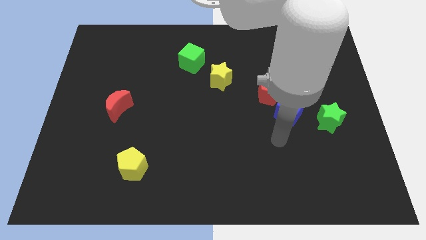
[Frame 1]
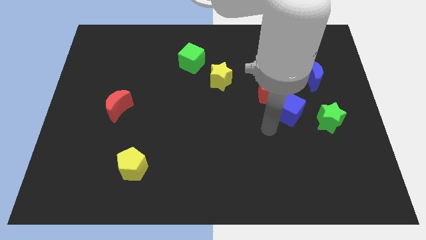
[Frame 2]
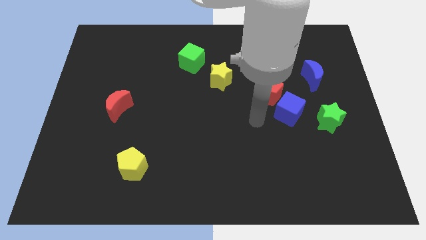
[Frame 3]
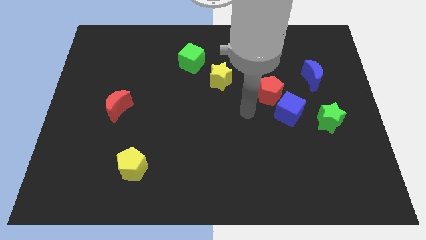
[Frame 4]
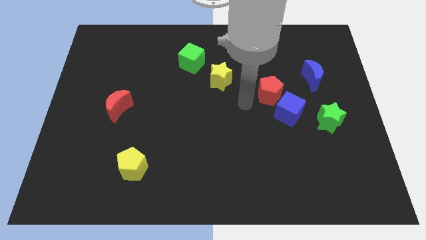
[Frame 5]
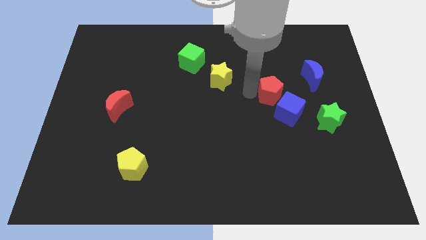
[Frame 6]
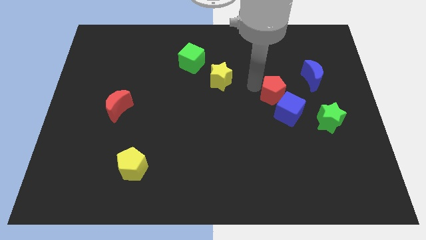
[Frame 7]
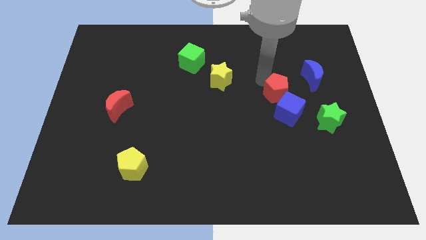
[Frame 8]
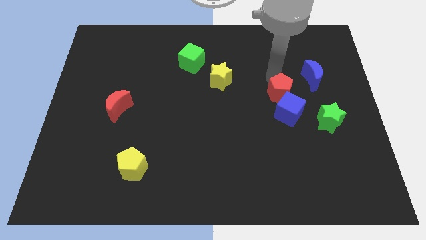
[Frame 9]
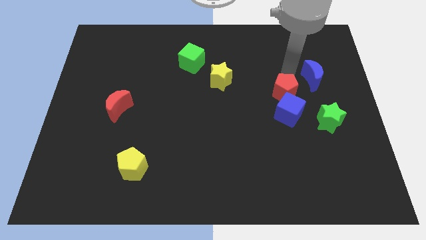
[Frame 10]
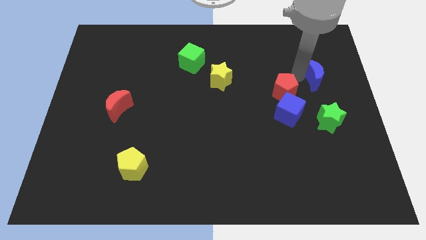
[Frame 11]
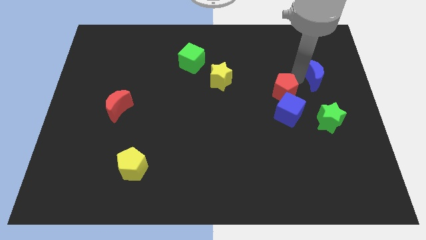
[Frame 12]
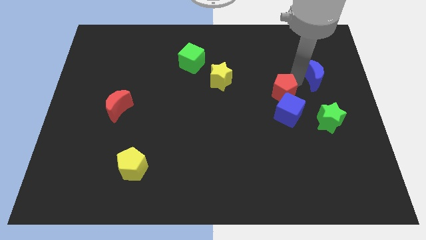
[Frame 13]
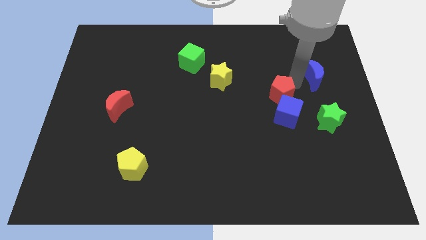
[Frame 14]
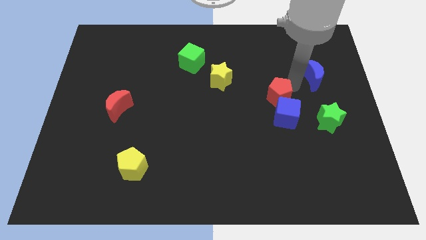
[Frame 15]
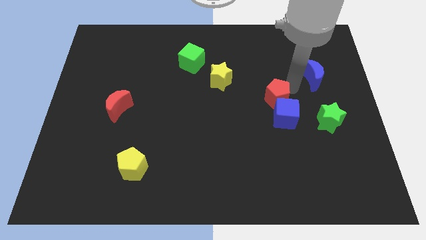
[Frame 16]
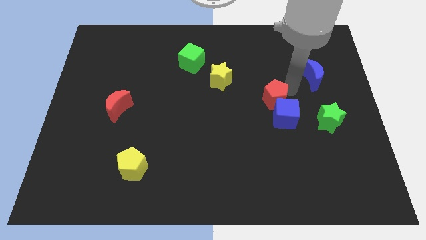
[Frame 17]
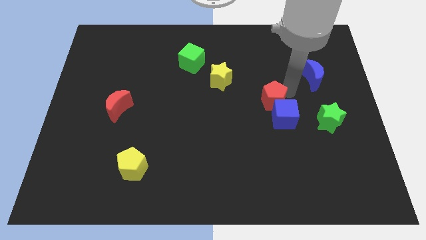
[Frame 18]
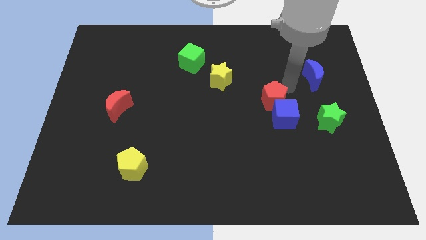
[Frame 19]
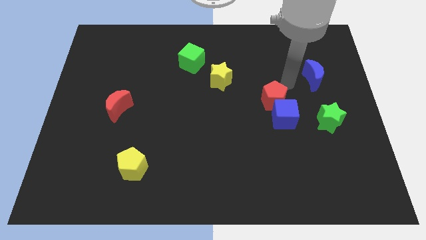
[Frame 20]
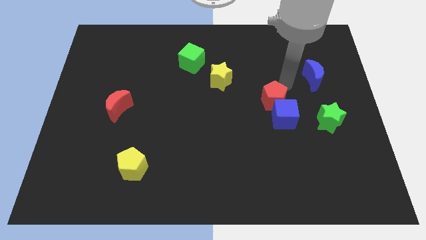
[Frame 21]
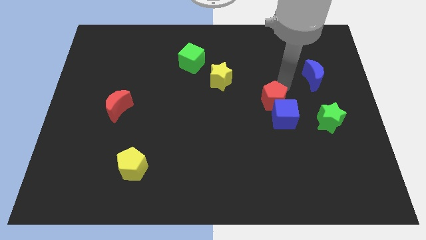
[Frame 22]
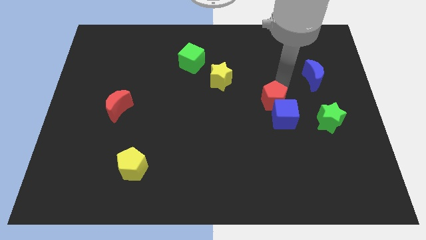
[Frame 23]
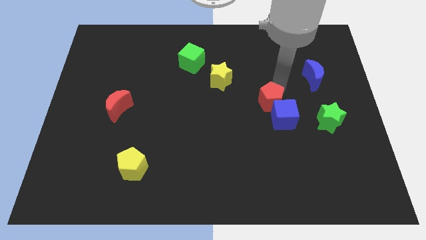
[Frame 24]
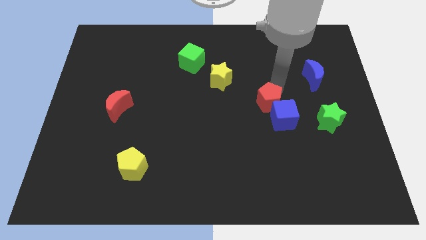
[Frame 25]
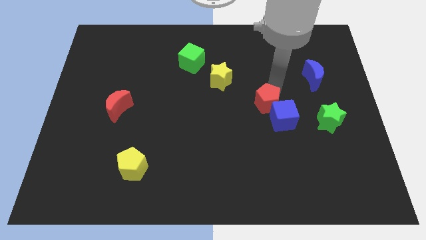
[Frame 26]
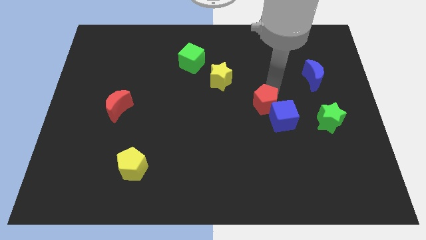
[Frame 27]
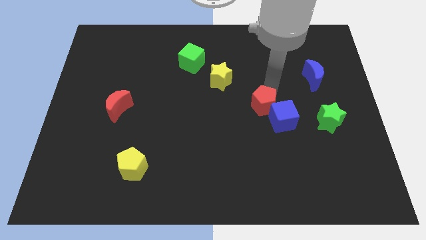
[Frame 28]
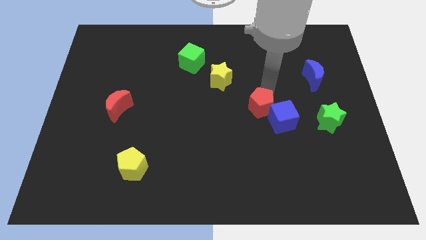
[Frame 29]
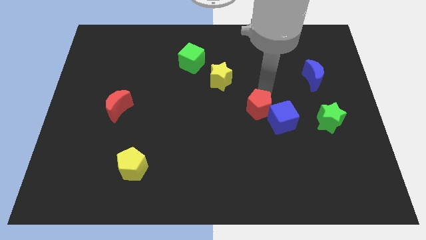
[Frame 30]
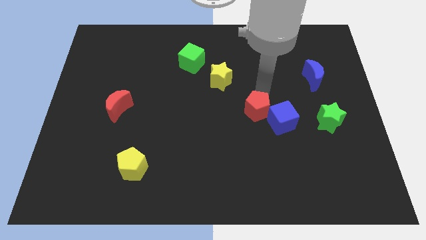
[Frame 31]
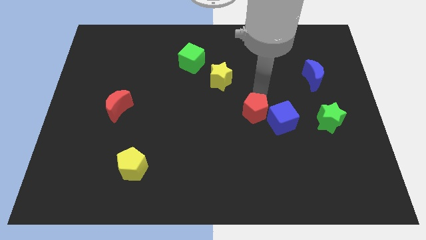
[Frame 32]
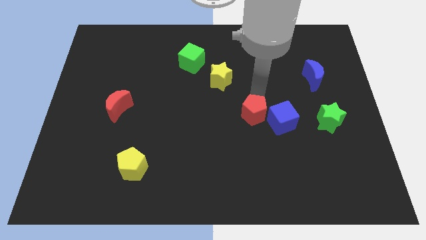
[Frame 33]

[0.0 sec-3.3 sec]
move the red pentagon a little bit diagonally down and left

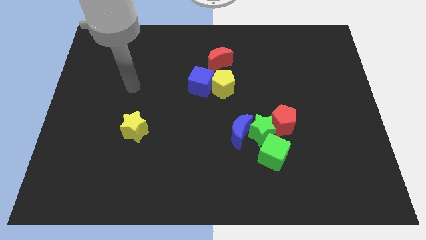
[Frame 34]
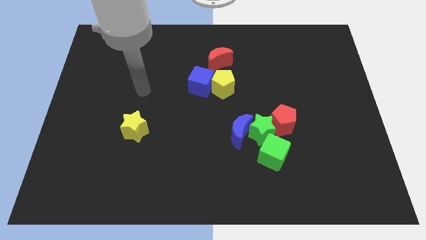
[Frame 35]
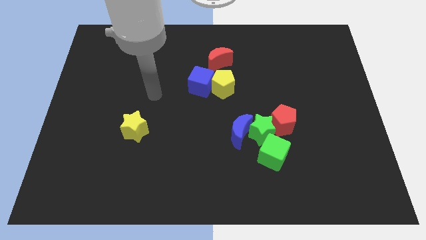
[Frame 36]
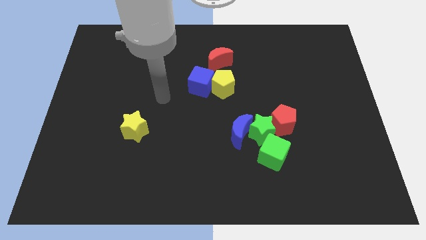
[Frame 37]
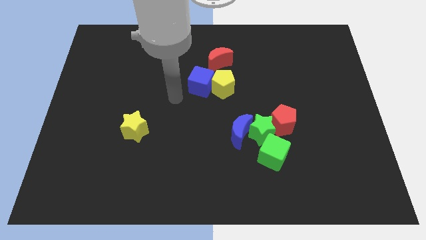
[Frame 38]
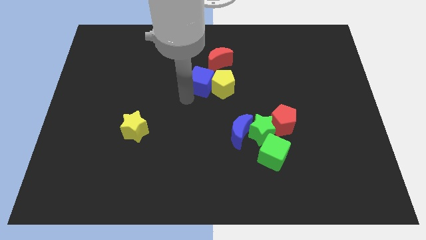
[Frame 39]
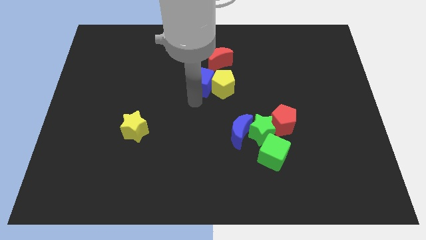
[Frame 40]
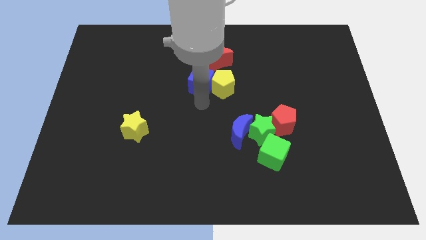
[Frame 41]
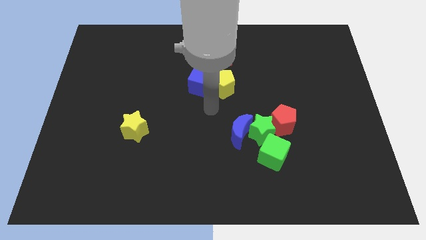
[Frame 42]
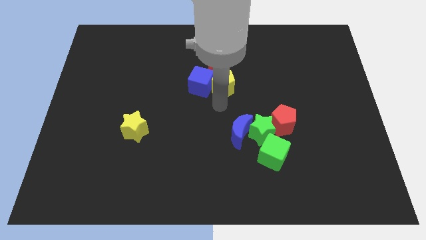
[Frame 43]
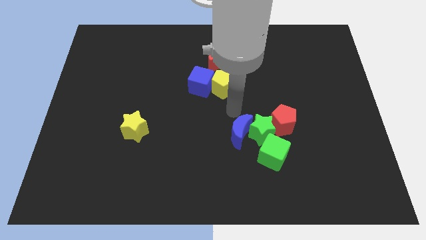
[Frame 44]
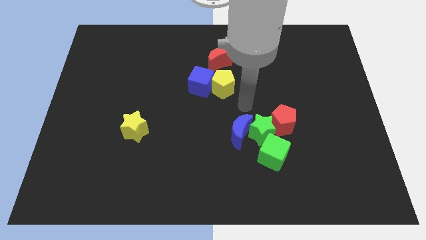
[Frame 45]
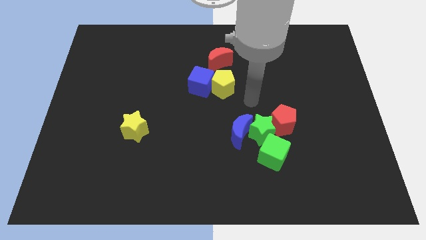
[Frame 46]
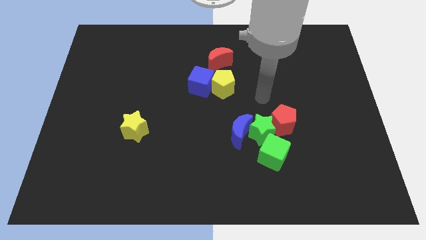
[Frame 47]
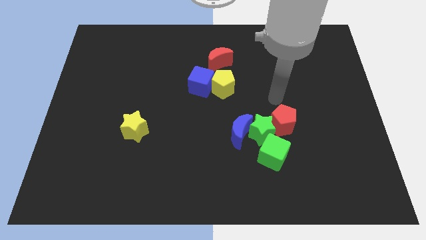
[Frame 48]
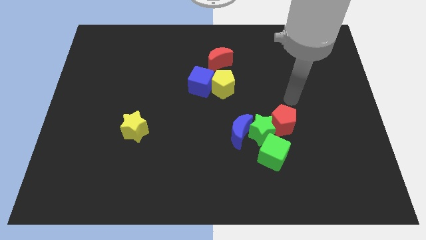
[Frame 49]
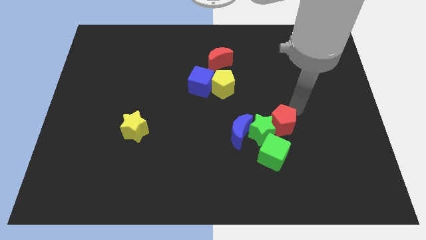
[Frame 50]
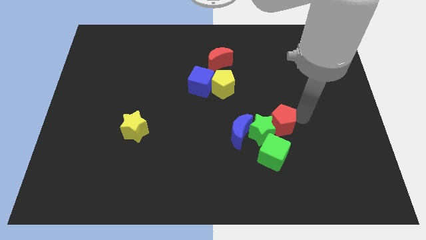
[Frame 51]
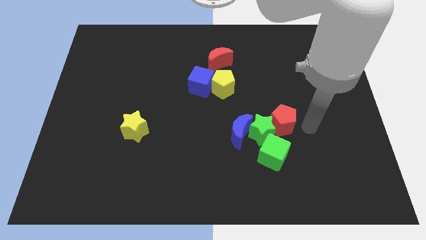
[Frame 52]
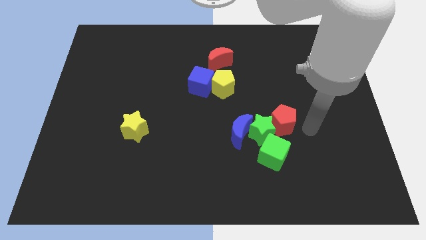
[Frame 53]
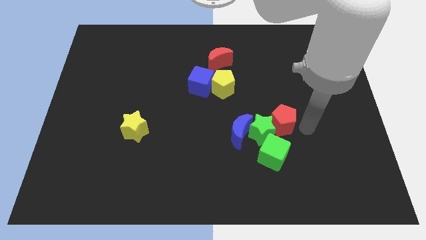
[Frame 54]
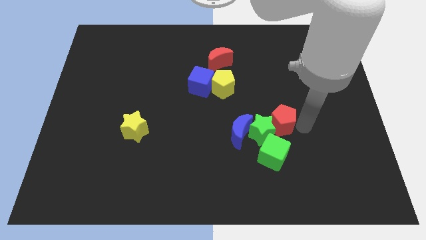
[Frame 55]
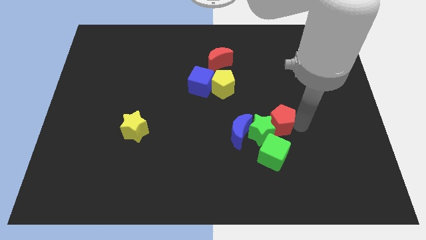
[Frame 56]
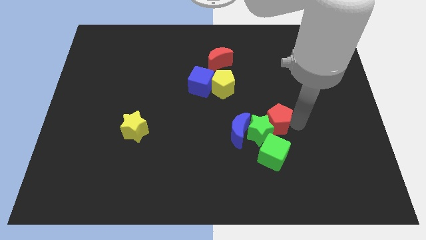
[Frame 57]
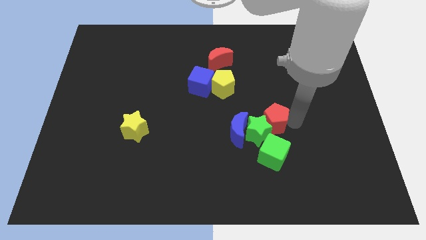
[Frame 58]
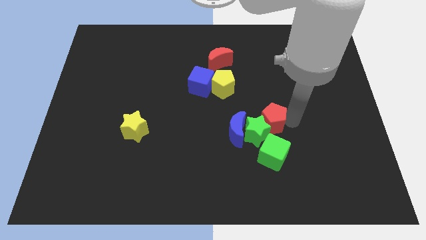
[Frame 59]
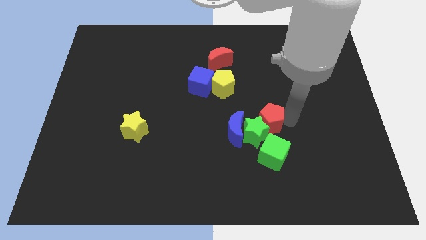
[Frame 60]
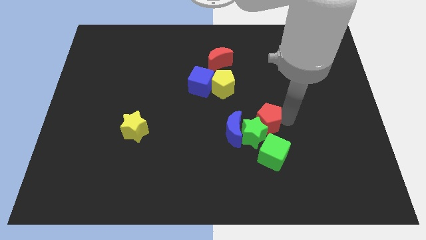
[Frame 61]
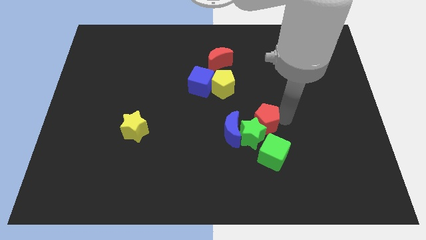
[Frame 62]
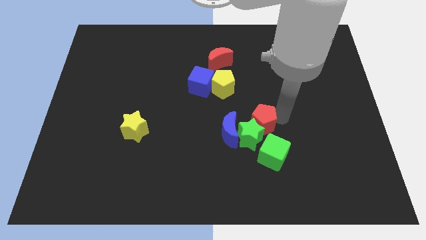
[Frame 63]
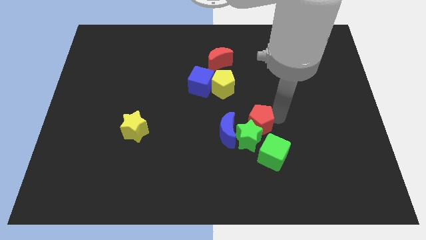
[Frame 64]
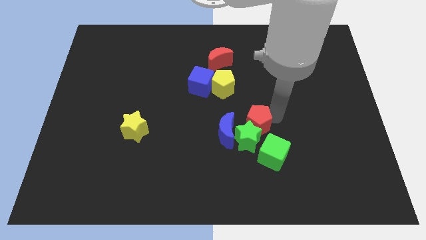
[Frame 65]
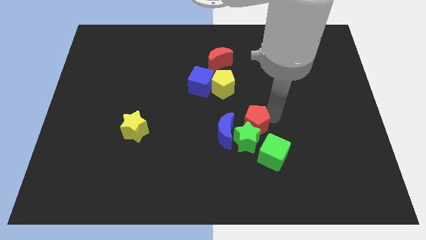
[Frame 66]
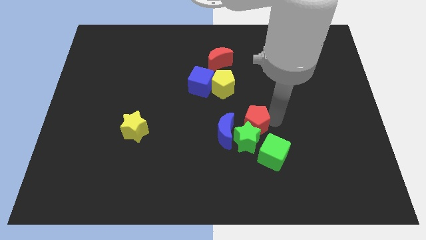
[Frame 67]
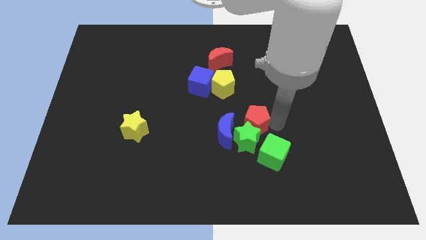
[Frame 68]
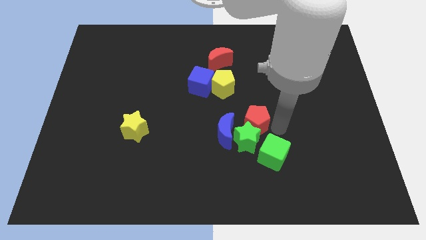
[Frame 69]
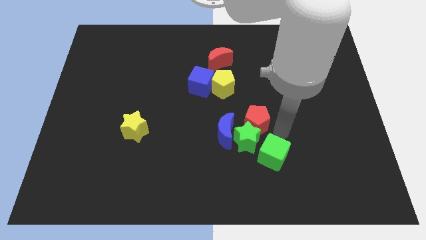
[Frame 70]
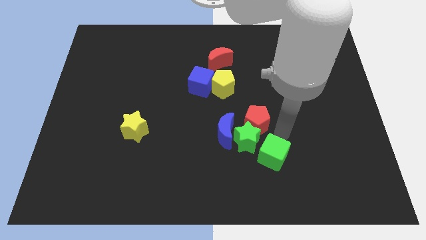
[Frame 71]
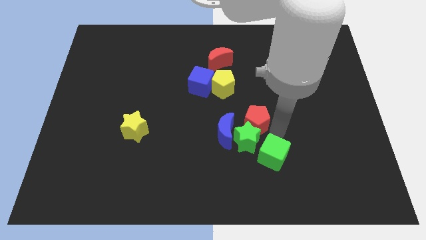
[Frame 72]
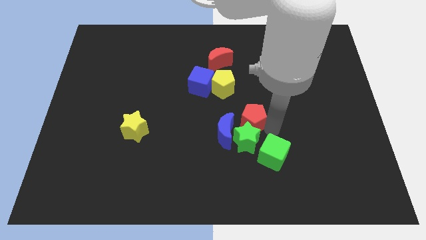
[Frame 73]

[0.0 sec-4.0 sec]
slightly slide the red pentagon to the left

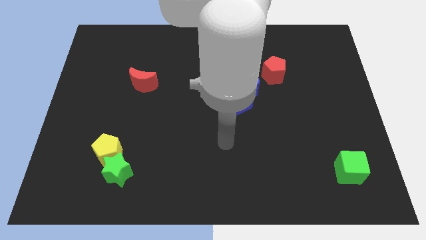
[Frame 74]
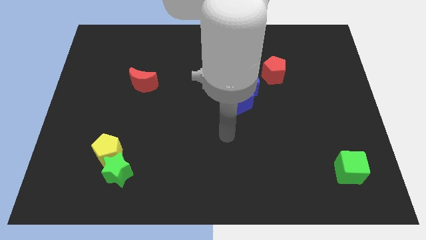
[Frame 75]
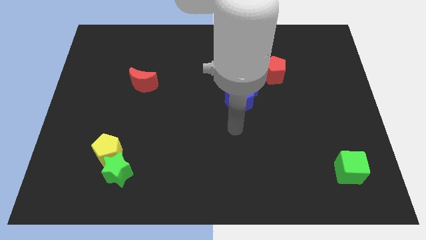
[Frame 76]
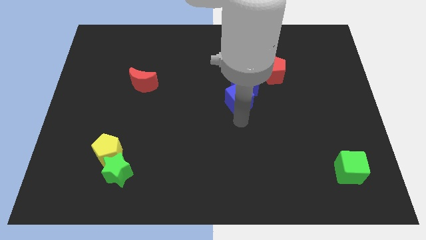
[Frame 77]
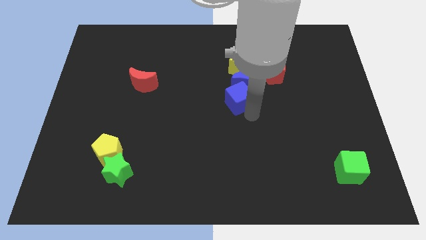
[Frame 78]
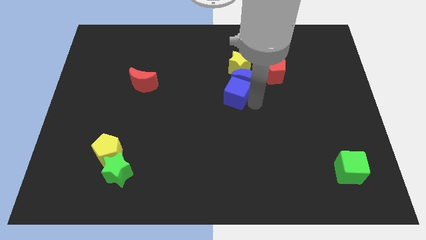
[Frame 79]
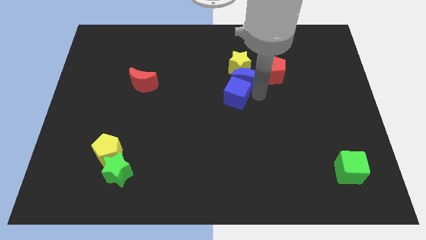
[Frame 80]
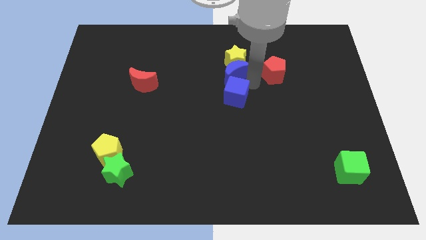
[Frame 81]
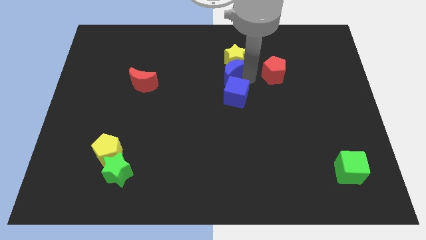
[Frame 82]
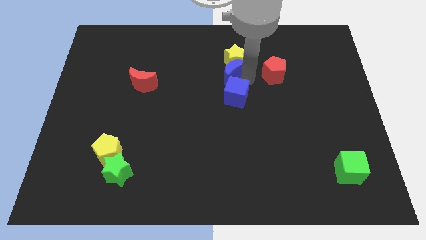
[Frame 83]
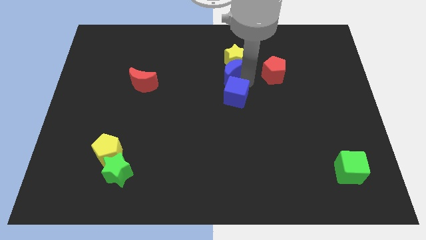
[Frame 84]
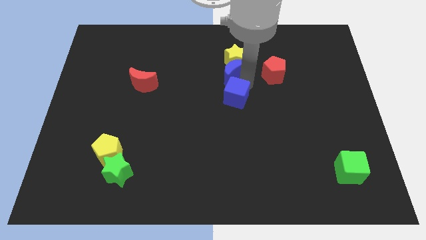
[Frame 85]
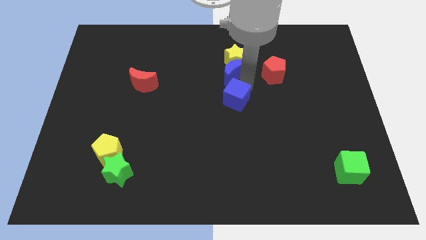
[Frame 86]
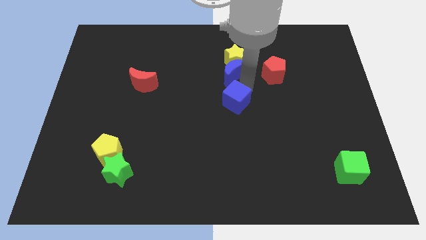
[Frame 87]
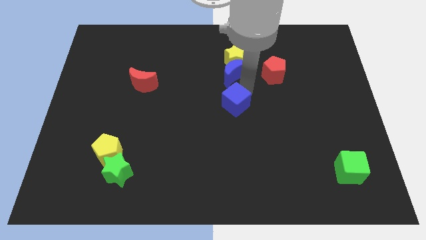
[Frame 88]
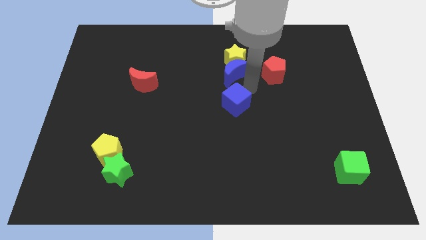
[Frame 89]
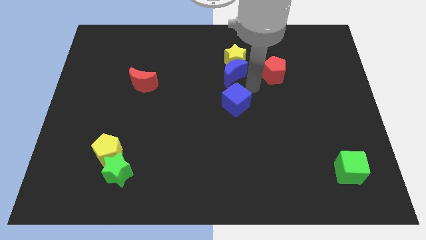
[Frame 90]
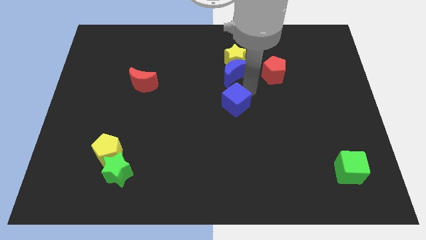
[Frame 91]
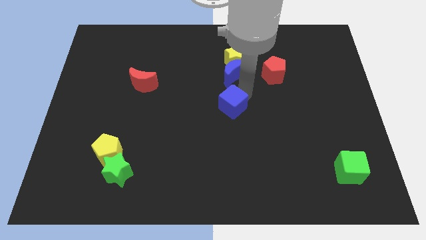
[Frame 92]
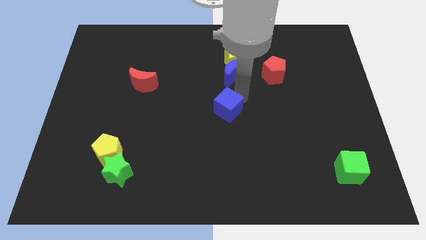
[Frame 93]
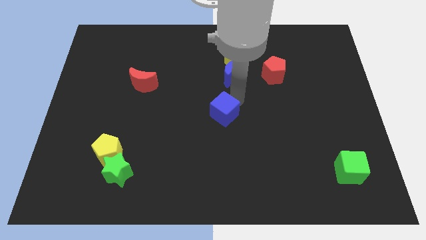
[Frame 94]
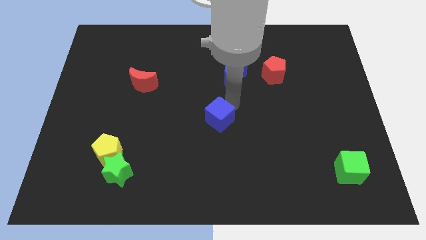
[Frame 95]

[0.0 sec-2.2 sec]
push the blue cube downwards and to the left somewhat
